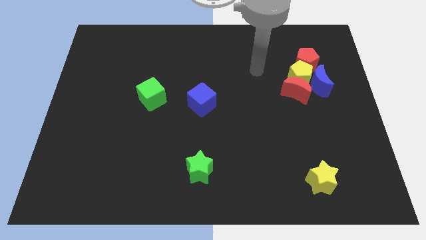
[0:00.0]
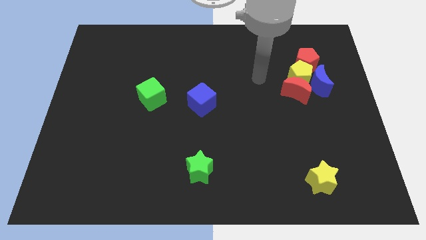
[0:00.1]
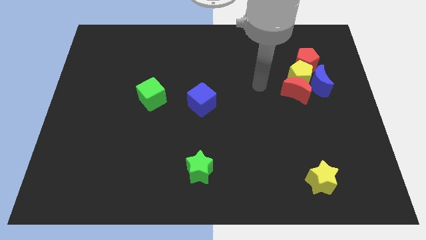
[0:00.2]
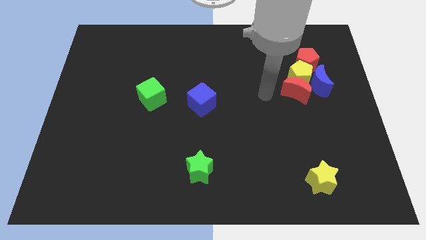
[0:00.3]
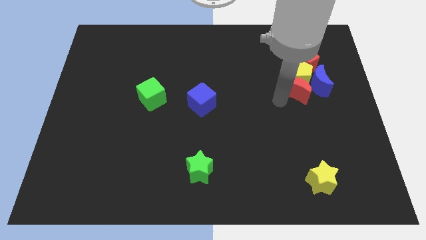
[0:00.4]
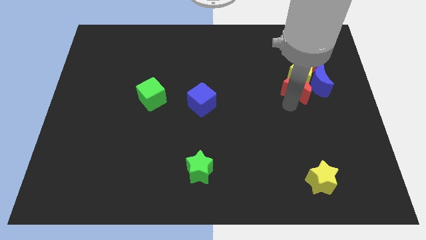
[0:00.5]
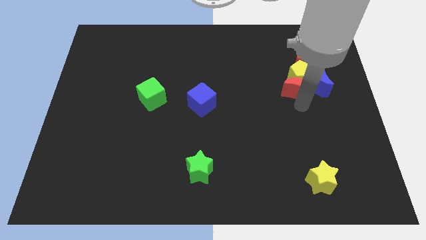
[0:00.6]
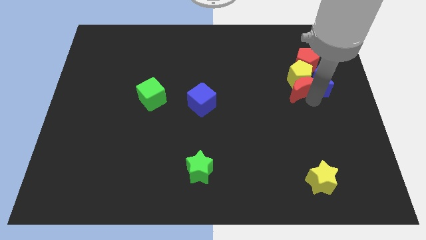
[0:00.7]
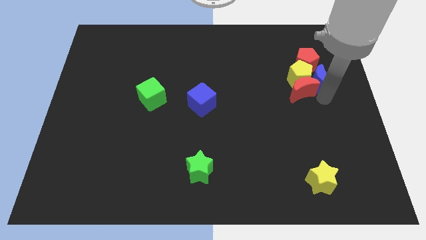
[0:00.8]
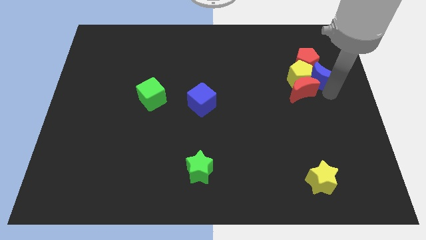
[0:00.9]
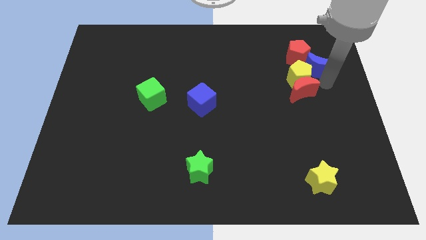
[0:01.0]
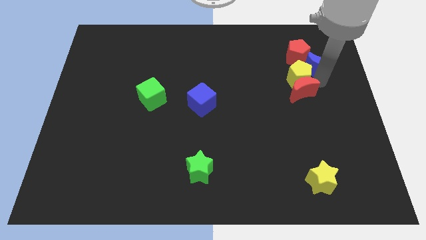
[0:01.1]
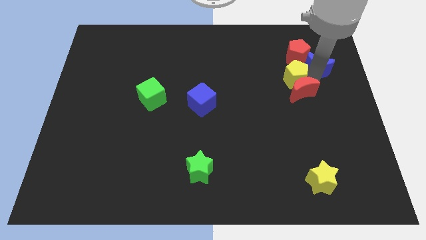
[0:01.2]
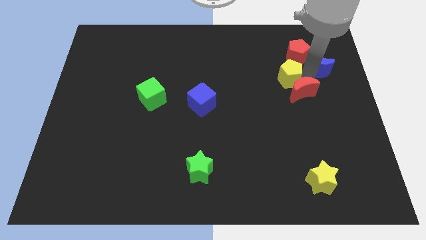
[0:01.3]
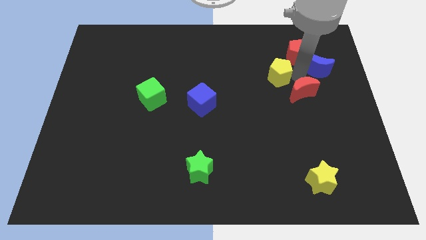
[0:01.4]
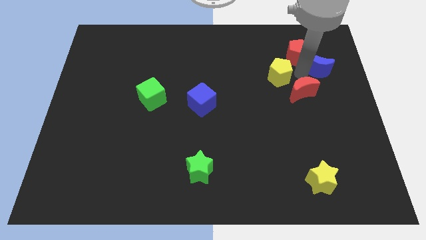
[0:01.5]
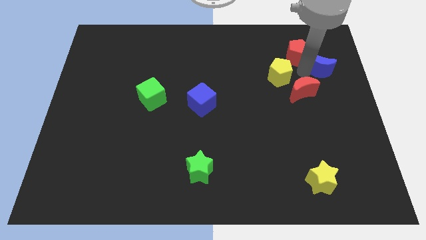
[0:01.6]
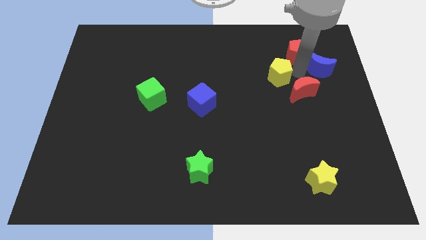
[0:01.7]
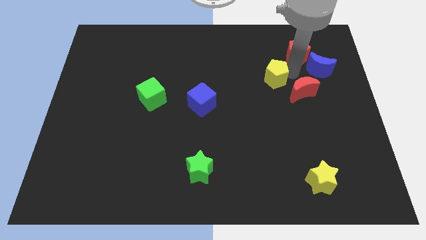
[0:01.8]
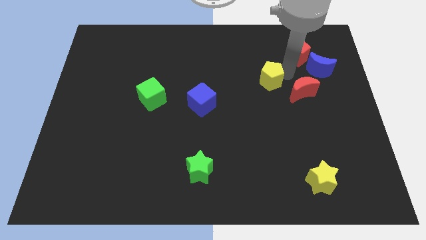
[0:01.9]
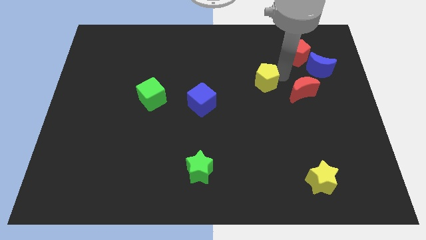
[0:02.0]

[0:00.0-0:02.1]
pull the yellow pentagon apart from the red moon, blue moon, and red pentagon

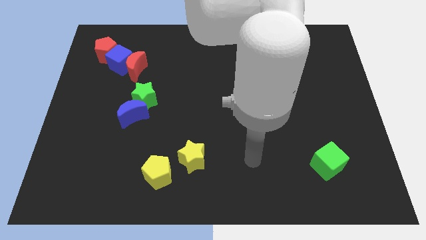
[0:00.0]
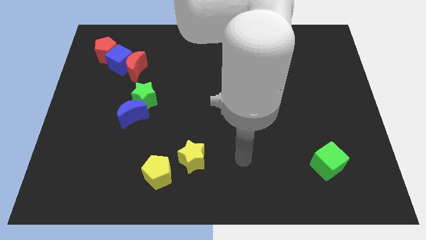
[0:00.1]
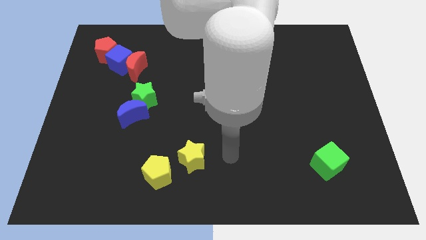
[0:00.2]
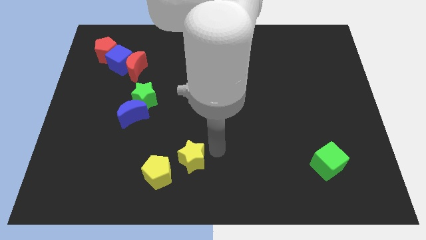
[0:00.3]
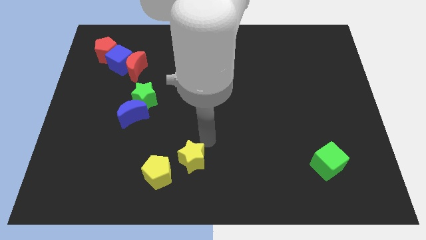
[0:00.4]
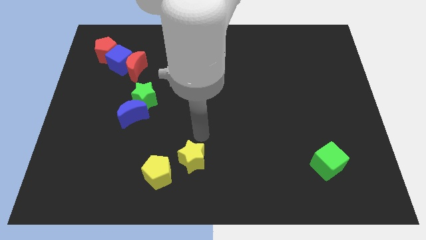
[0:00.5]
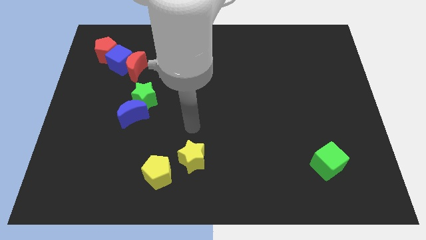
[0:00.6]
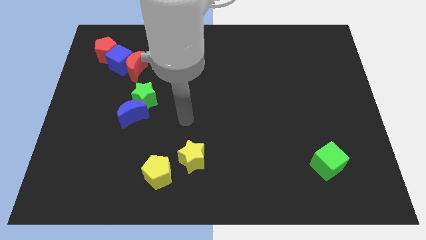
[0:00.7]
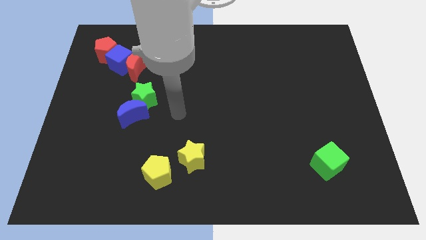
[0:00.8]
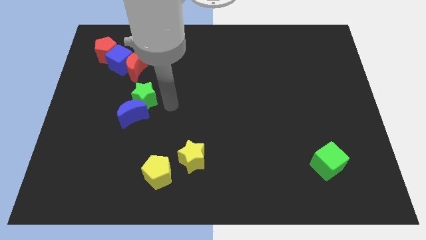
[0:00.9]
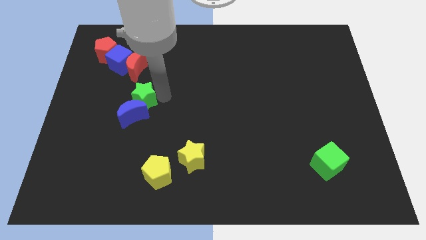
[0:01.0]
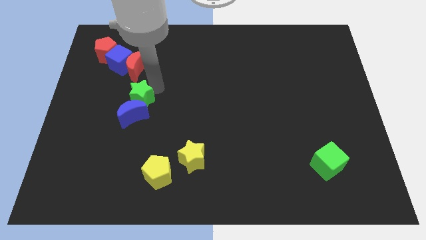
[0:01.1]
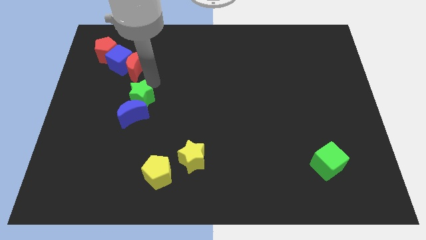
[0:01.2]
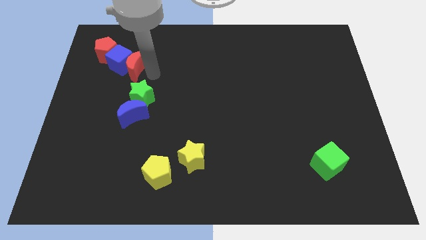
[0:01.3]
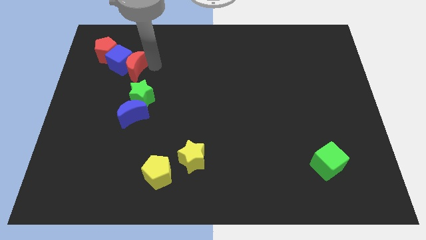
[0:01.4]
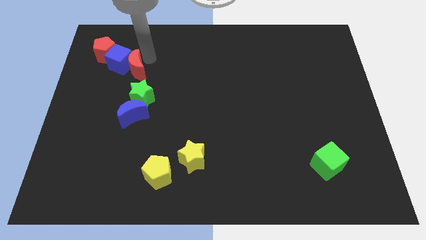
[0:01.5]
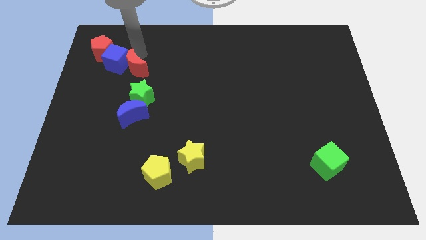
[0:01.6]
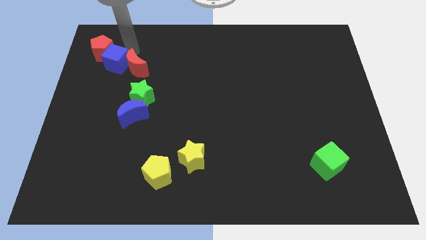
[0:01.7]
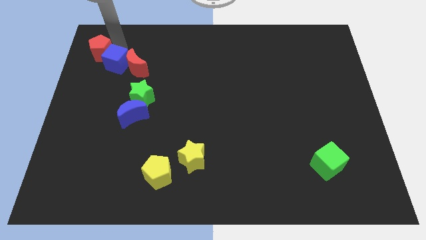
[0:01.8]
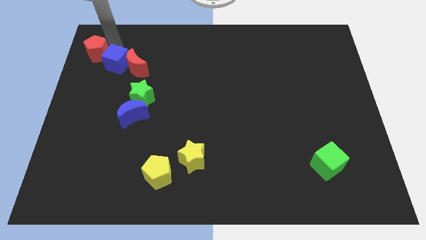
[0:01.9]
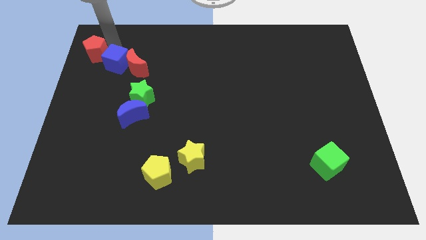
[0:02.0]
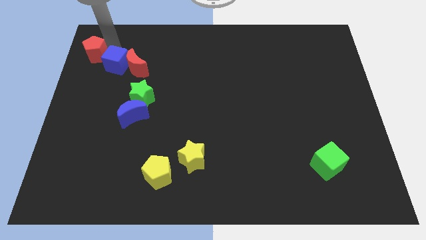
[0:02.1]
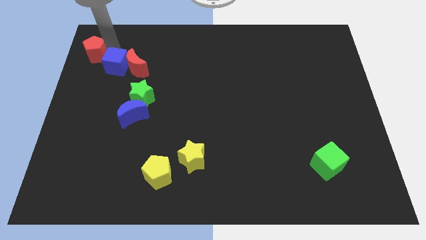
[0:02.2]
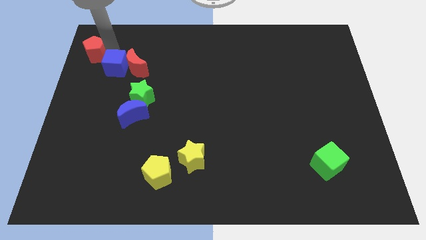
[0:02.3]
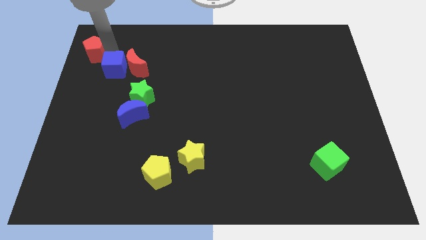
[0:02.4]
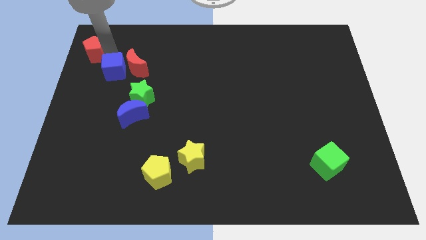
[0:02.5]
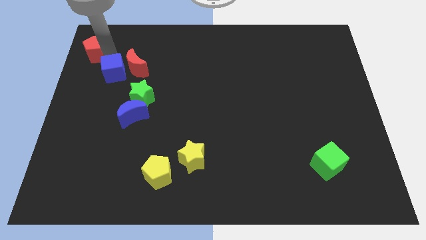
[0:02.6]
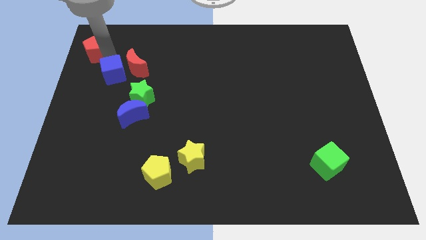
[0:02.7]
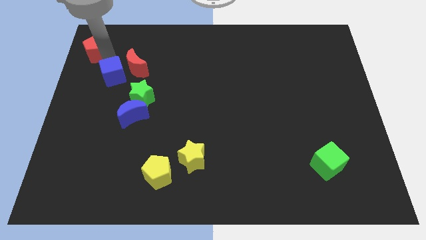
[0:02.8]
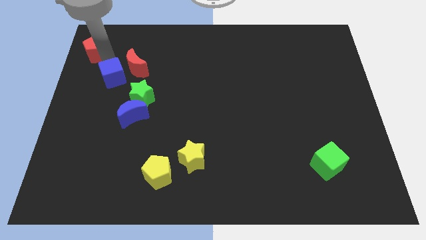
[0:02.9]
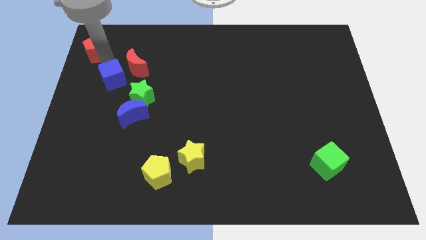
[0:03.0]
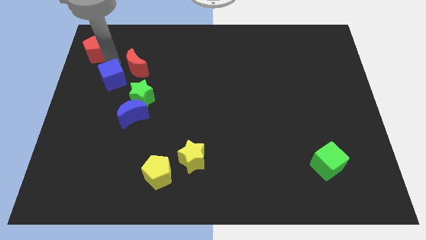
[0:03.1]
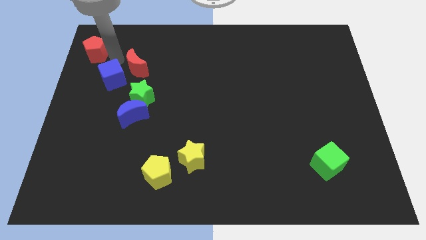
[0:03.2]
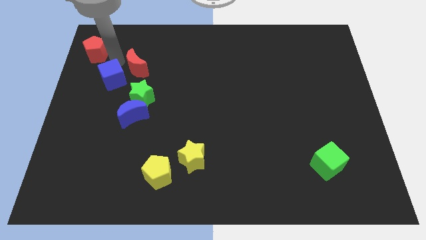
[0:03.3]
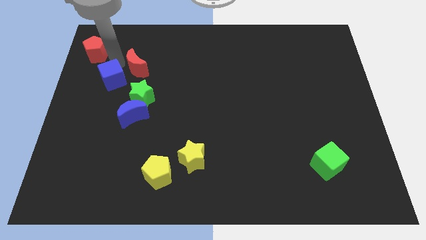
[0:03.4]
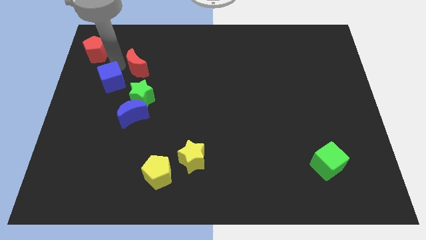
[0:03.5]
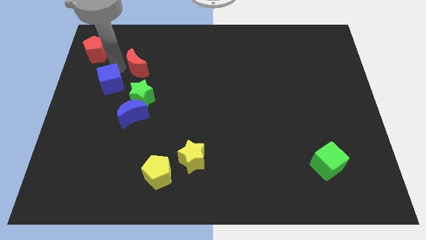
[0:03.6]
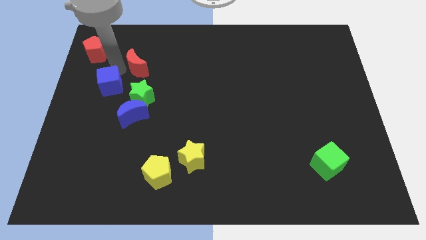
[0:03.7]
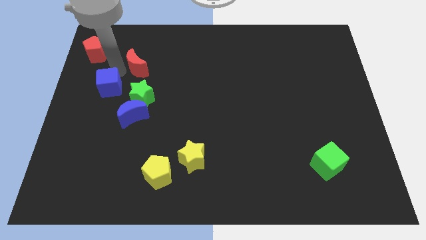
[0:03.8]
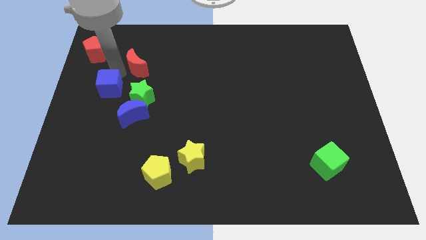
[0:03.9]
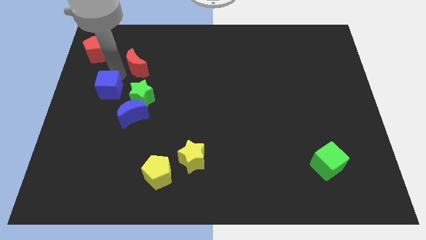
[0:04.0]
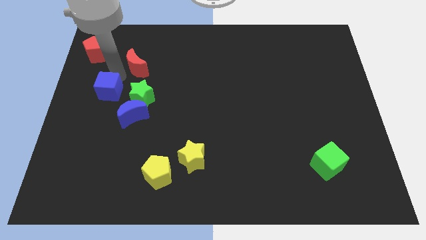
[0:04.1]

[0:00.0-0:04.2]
move the blue cube away from the red moon and red pentagon

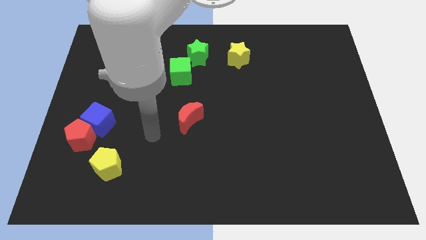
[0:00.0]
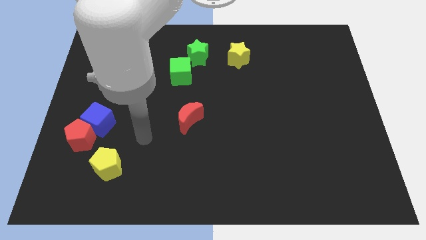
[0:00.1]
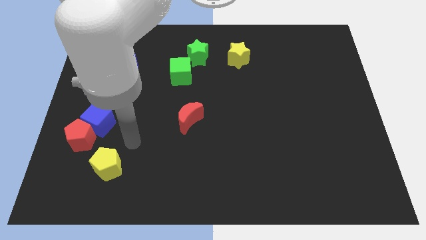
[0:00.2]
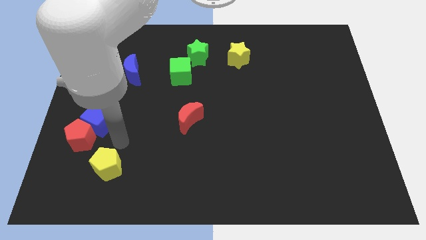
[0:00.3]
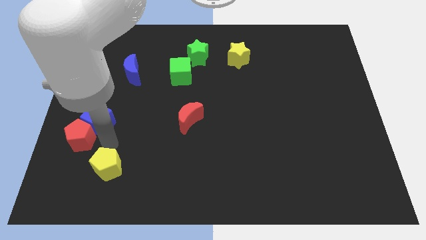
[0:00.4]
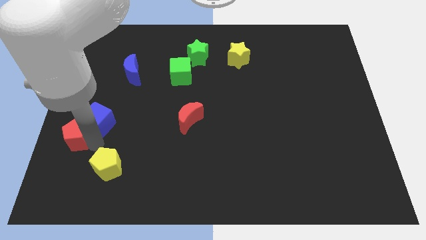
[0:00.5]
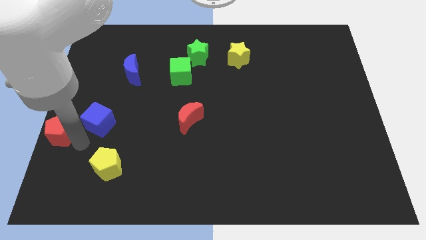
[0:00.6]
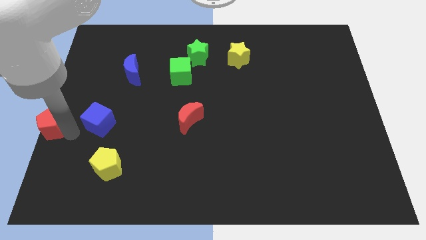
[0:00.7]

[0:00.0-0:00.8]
separate the blue cube from the red pentagon

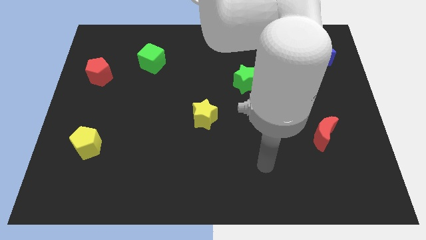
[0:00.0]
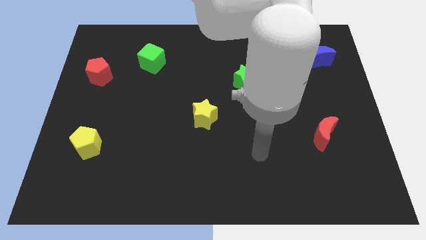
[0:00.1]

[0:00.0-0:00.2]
separate the blue cube from the green star

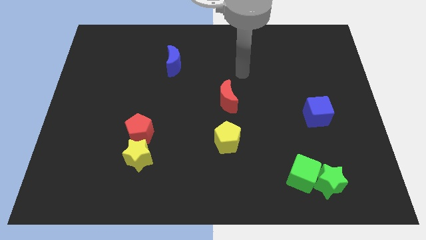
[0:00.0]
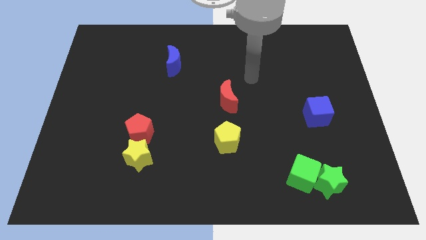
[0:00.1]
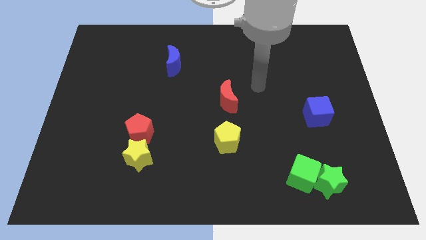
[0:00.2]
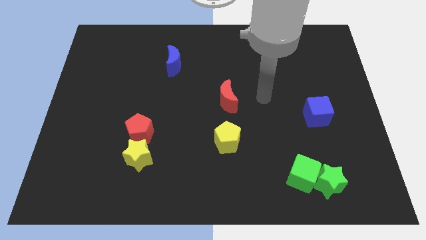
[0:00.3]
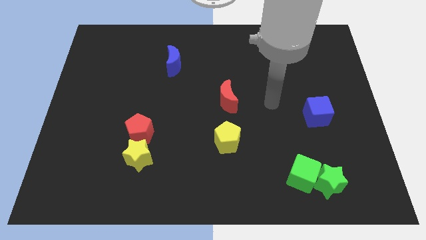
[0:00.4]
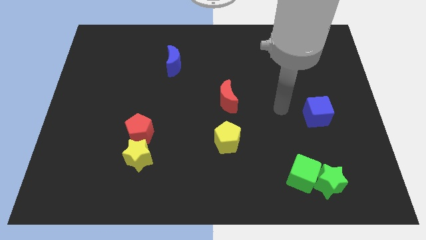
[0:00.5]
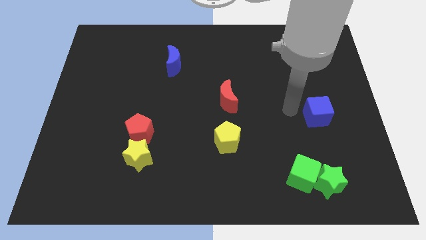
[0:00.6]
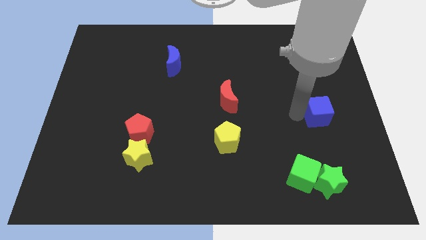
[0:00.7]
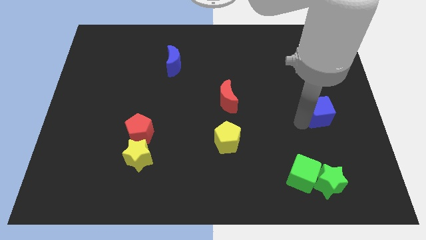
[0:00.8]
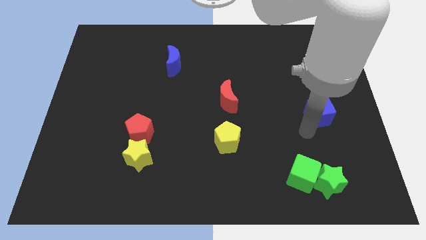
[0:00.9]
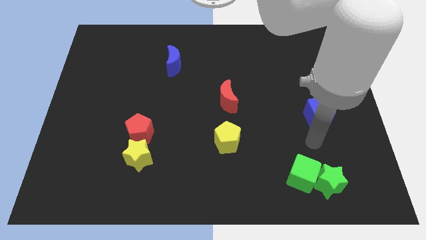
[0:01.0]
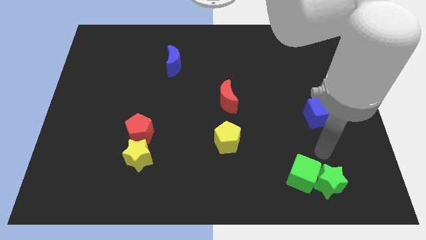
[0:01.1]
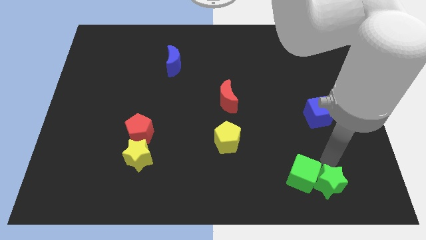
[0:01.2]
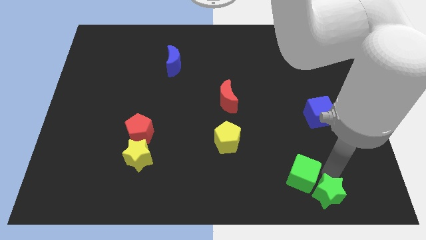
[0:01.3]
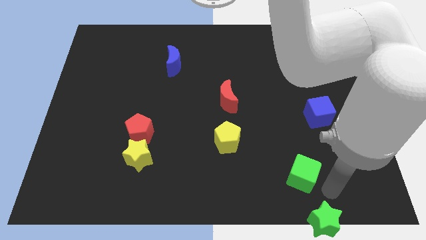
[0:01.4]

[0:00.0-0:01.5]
pull the green cube apart from the green star

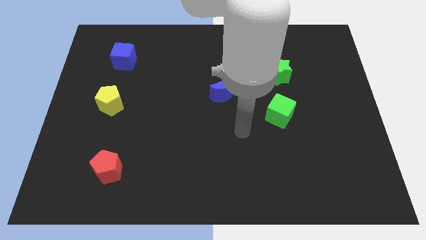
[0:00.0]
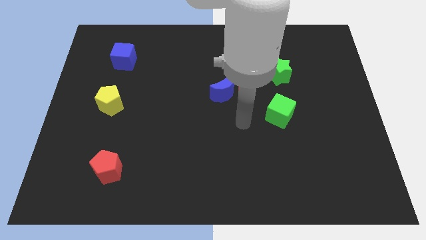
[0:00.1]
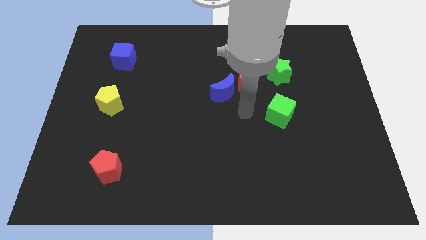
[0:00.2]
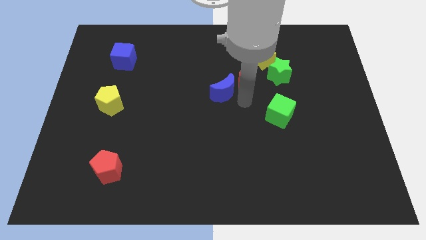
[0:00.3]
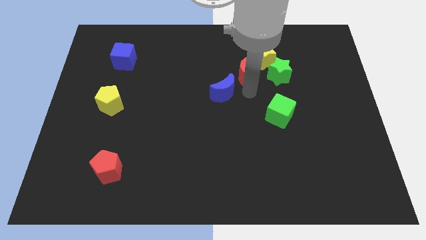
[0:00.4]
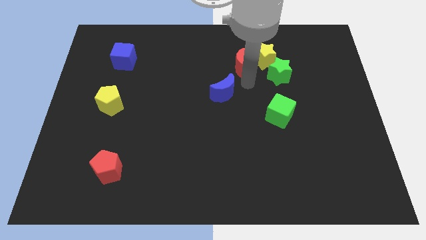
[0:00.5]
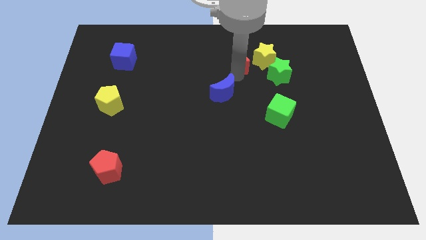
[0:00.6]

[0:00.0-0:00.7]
move the blue moon away from the red moon

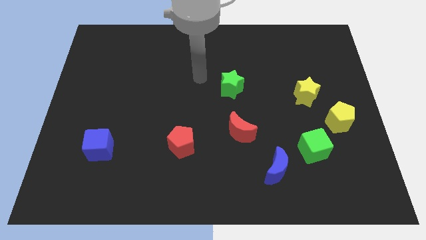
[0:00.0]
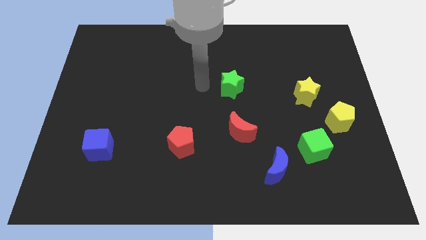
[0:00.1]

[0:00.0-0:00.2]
move the blue moon away from the green cube
